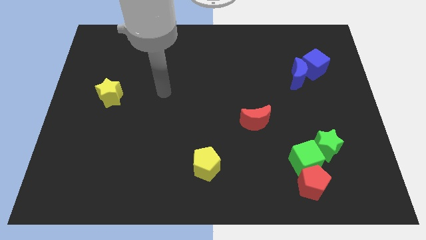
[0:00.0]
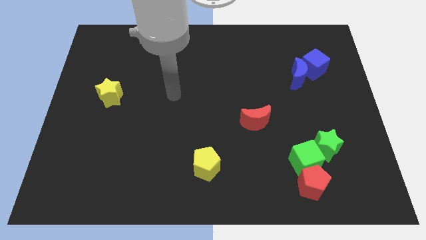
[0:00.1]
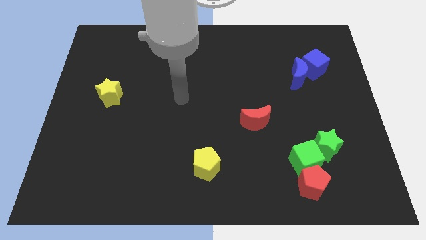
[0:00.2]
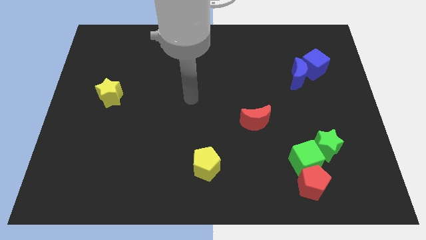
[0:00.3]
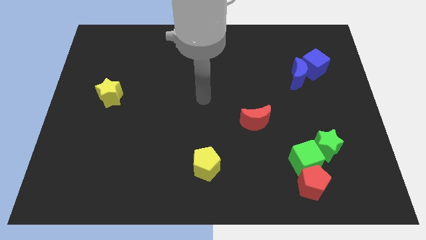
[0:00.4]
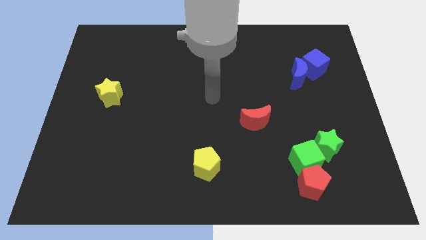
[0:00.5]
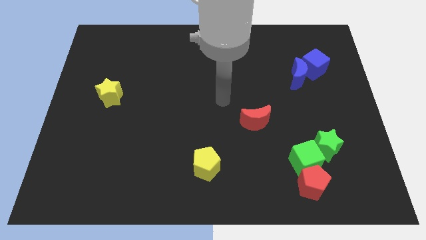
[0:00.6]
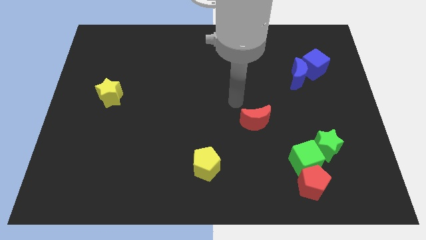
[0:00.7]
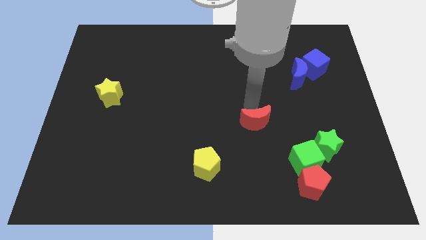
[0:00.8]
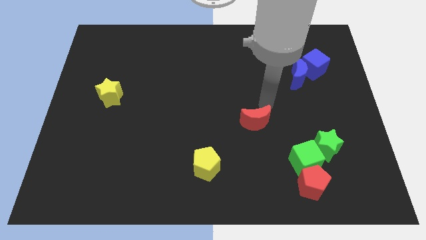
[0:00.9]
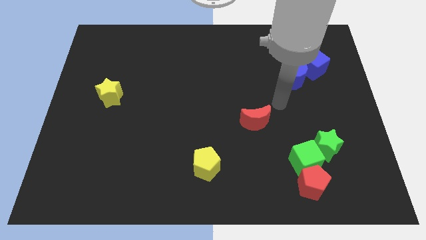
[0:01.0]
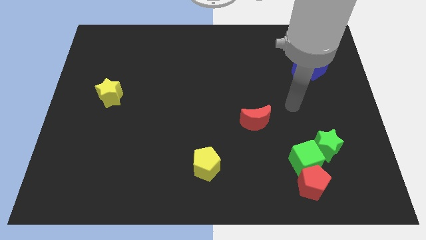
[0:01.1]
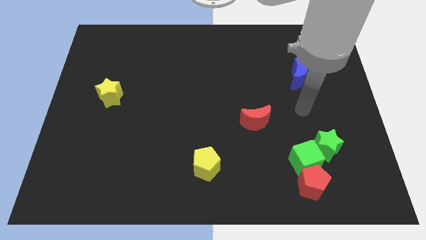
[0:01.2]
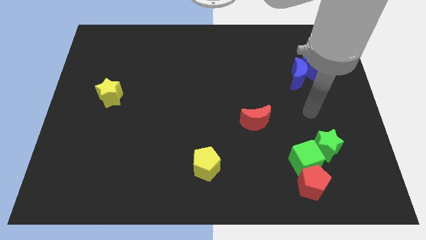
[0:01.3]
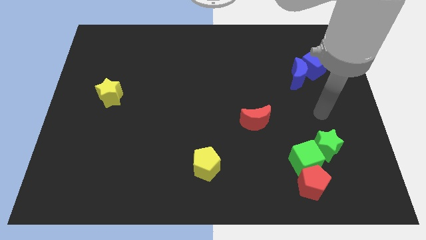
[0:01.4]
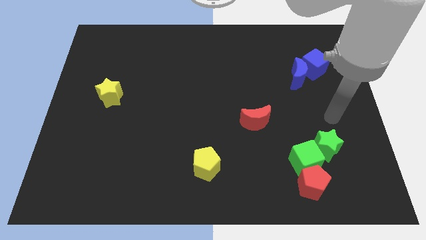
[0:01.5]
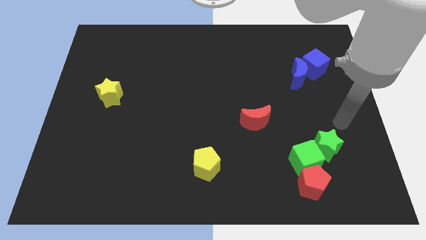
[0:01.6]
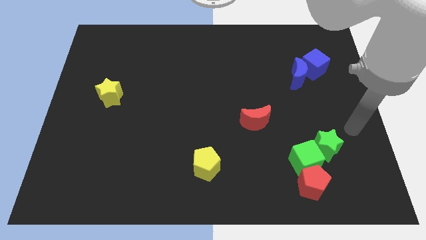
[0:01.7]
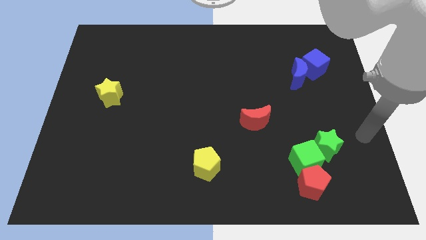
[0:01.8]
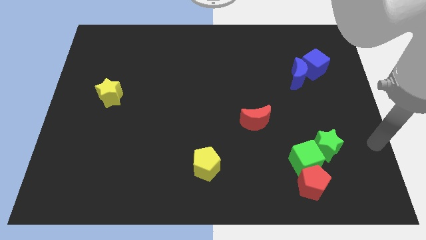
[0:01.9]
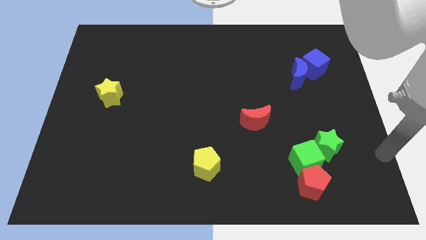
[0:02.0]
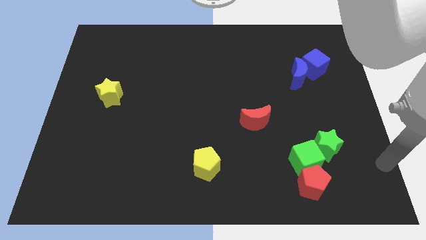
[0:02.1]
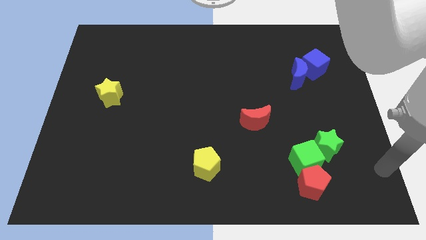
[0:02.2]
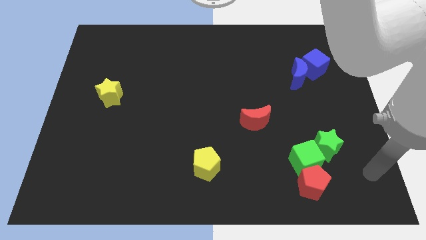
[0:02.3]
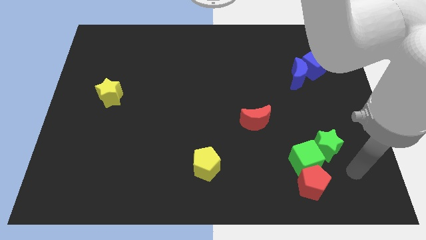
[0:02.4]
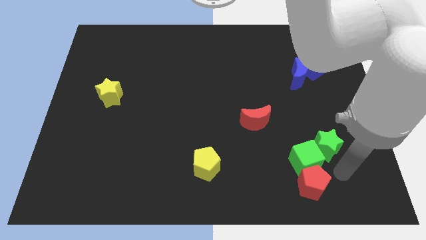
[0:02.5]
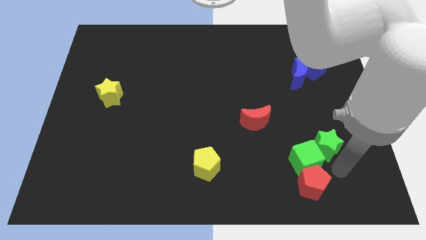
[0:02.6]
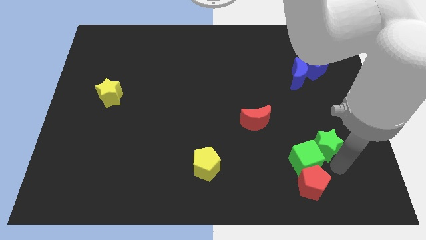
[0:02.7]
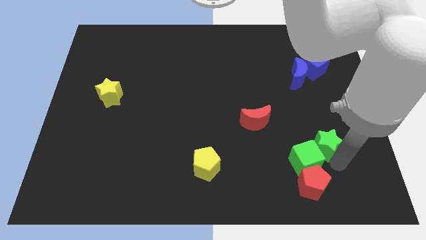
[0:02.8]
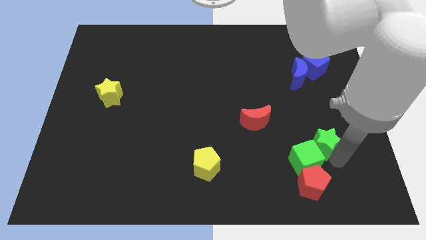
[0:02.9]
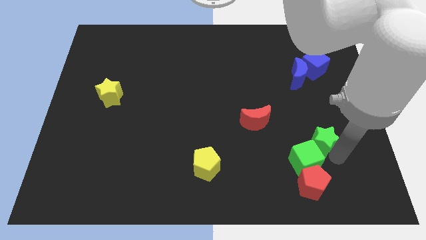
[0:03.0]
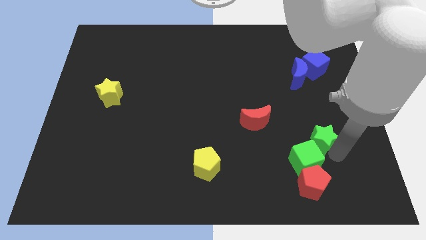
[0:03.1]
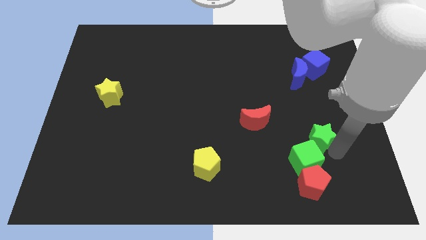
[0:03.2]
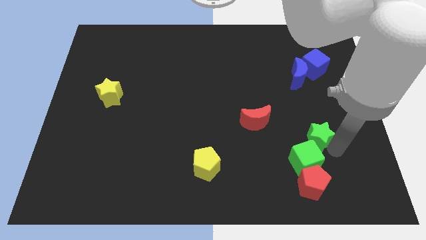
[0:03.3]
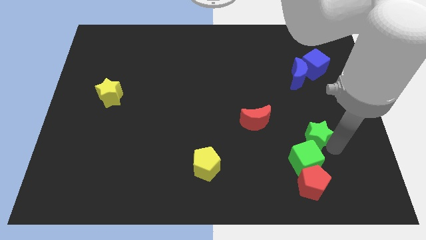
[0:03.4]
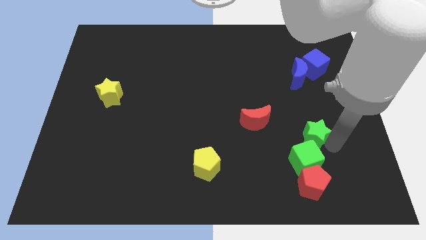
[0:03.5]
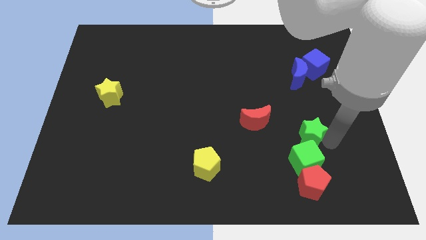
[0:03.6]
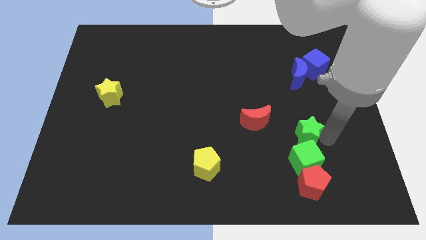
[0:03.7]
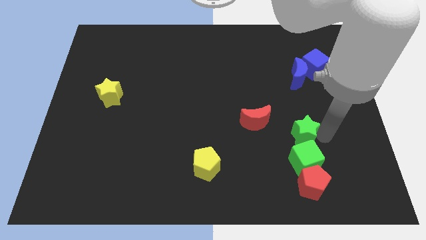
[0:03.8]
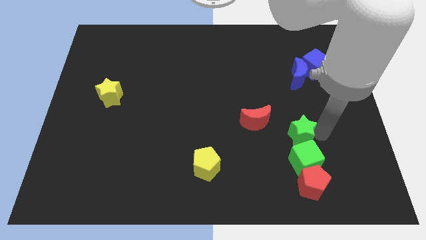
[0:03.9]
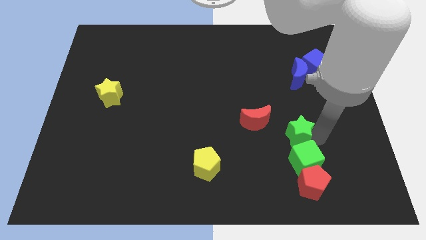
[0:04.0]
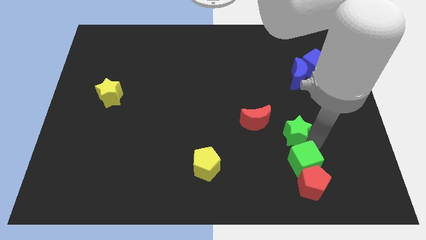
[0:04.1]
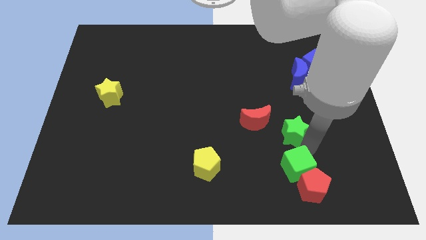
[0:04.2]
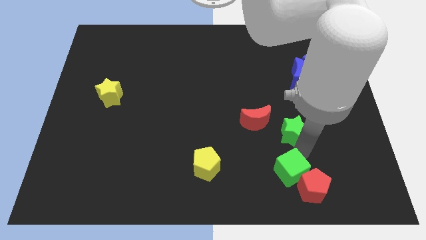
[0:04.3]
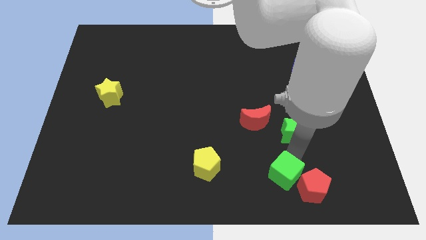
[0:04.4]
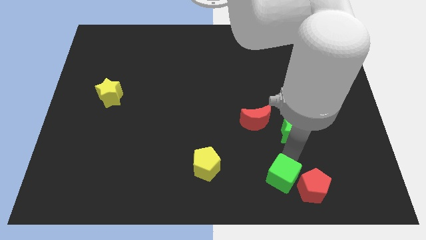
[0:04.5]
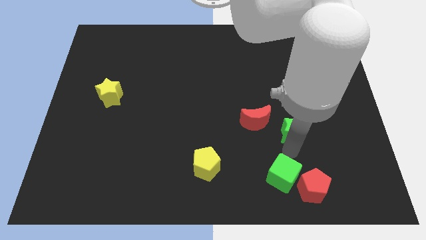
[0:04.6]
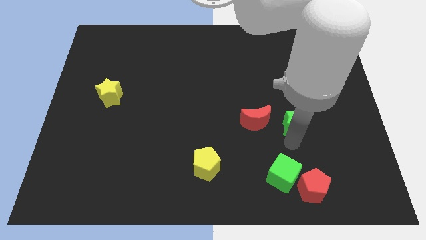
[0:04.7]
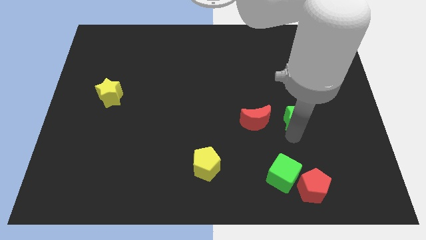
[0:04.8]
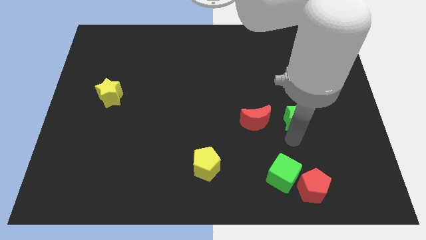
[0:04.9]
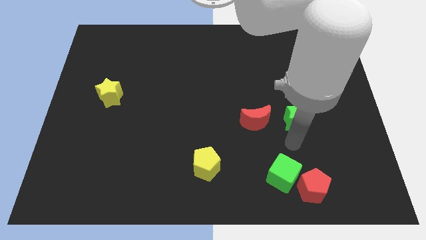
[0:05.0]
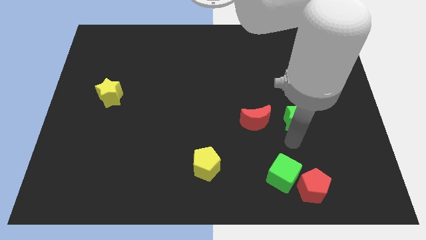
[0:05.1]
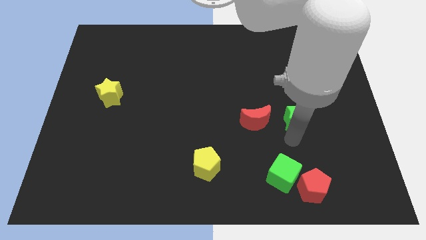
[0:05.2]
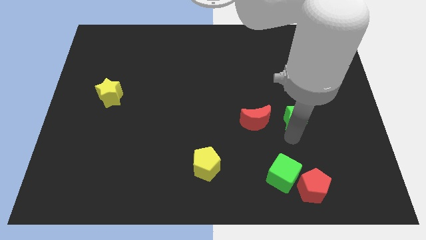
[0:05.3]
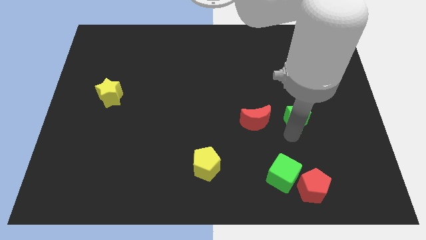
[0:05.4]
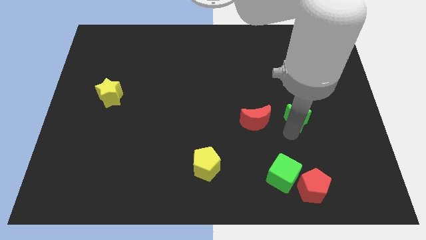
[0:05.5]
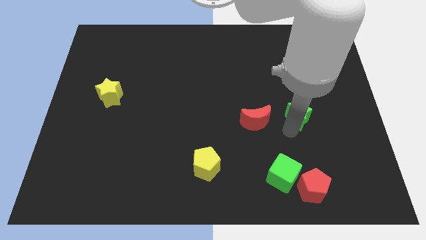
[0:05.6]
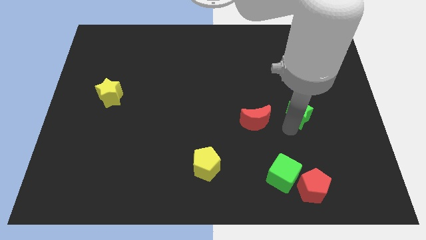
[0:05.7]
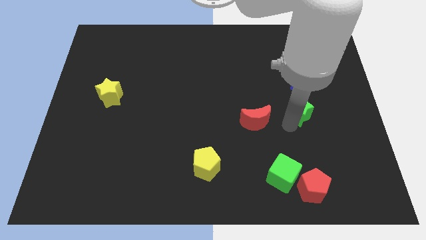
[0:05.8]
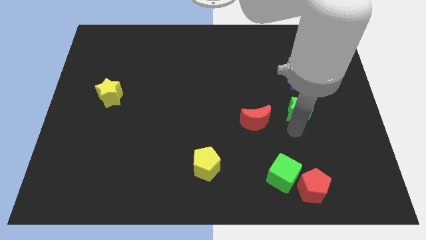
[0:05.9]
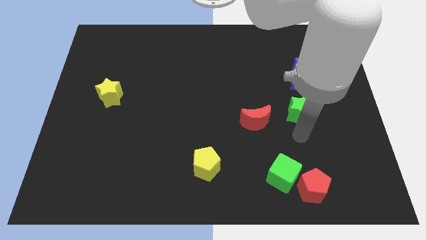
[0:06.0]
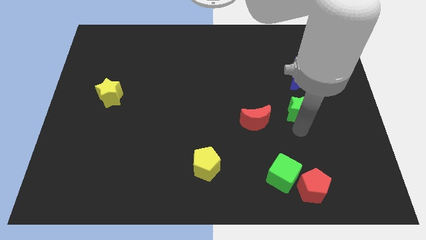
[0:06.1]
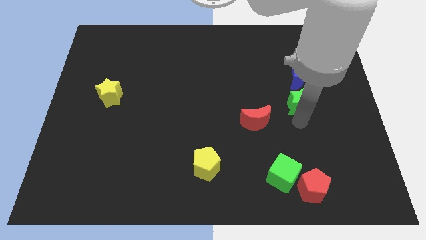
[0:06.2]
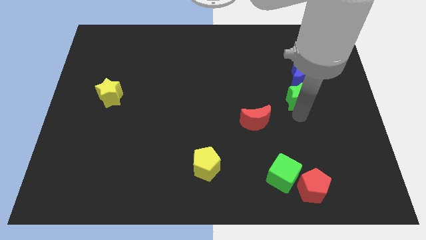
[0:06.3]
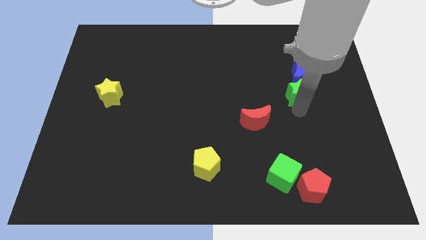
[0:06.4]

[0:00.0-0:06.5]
push the green star towards the blue moon

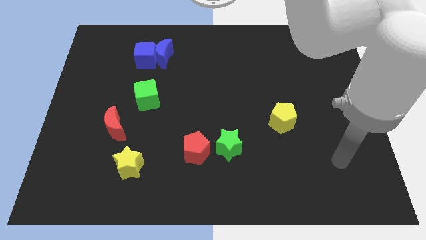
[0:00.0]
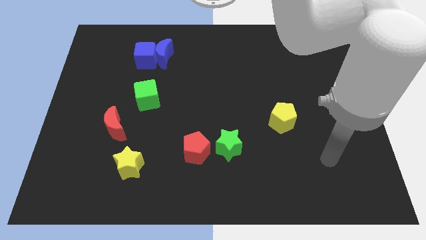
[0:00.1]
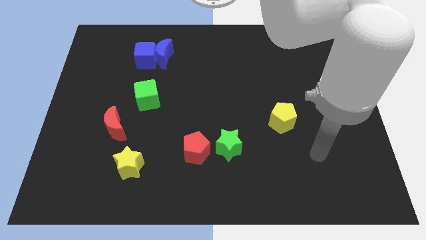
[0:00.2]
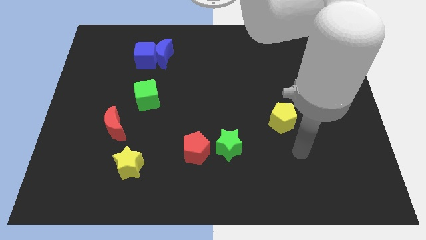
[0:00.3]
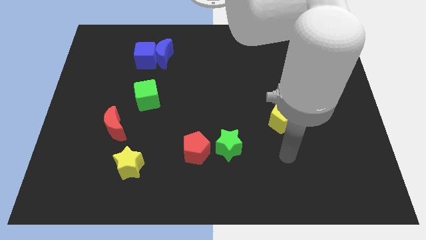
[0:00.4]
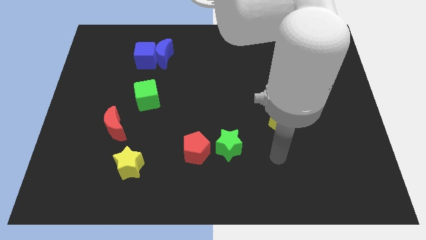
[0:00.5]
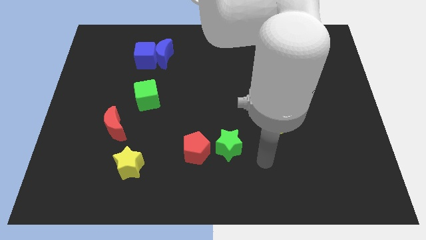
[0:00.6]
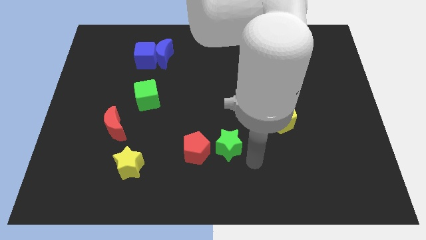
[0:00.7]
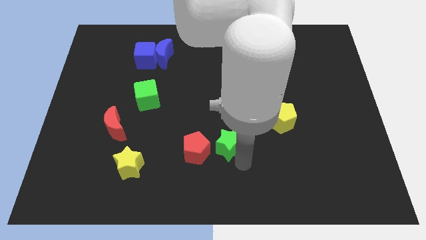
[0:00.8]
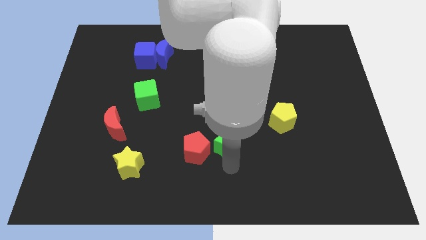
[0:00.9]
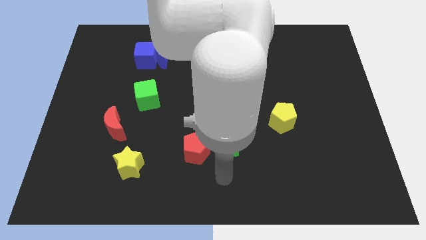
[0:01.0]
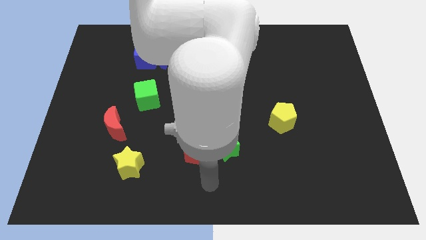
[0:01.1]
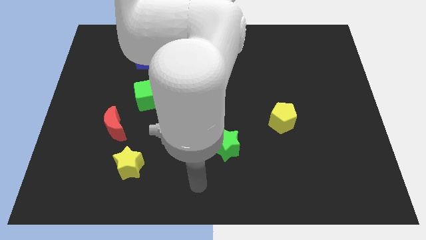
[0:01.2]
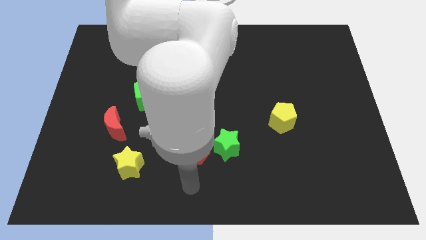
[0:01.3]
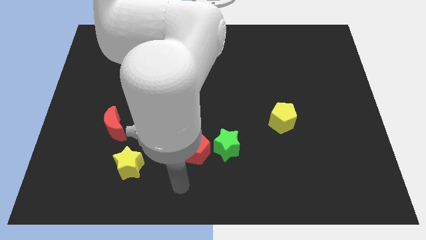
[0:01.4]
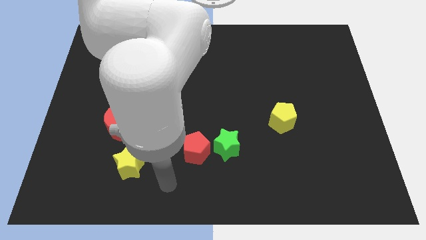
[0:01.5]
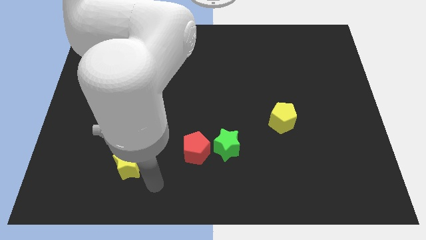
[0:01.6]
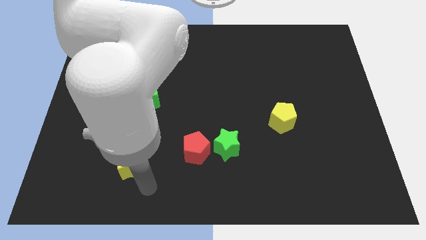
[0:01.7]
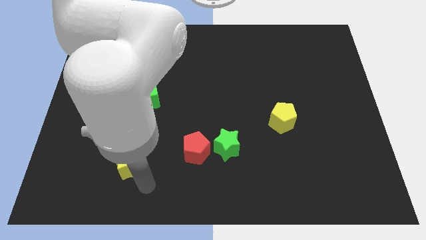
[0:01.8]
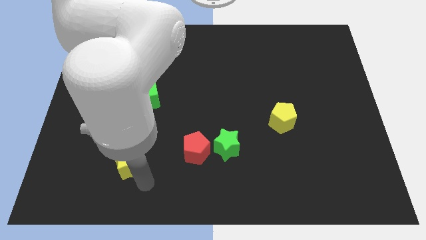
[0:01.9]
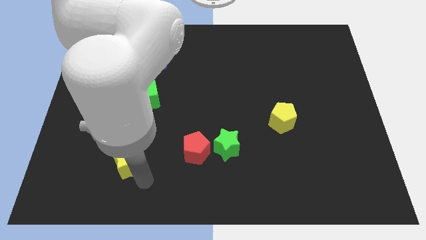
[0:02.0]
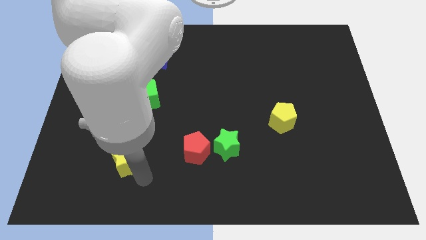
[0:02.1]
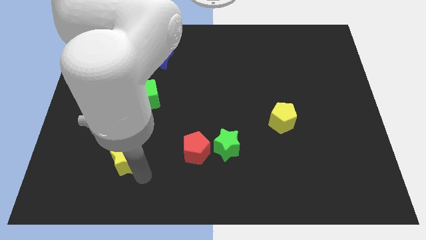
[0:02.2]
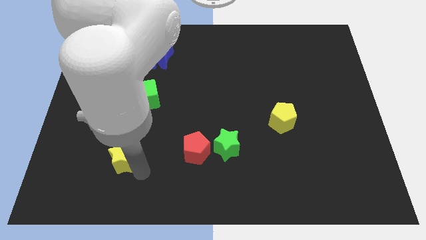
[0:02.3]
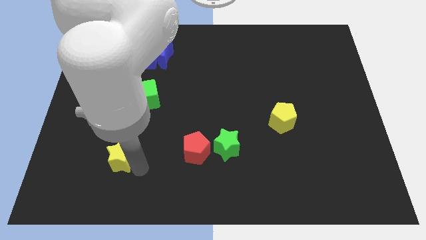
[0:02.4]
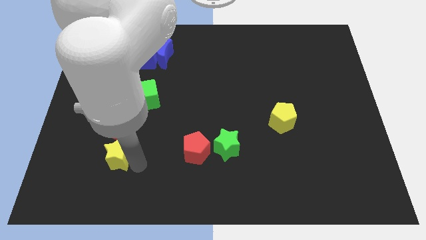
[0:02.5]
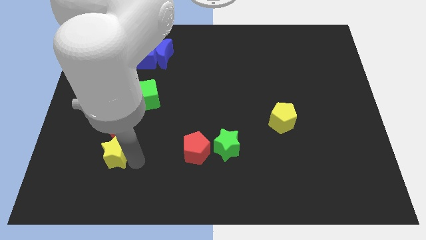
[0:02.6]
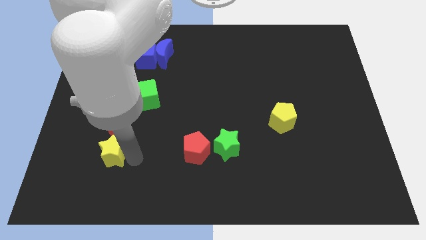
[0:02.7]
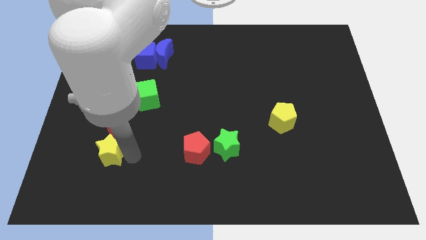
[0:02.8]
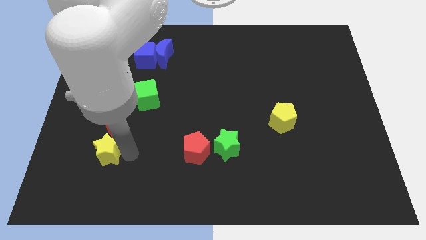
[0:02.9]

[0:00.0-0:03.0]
move the yellow star to the red moon
